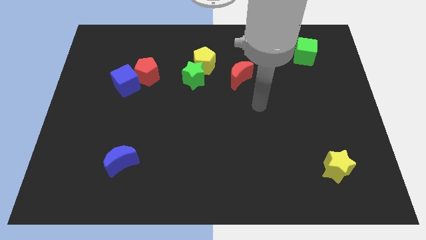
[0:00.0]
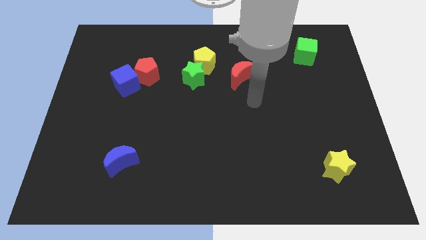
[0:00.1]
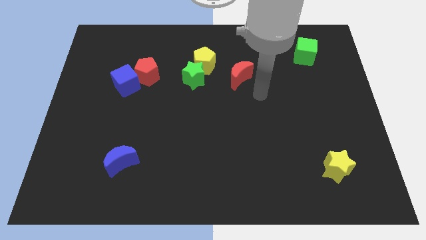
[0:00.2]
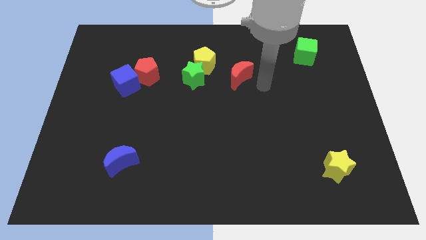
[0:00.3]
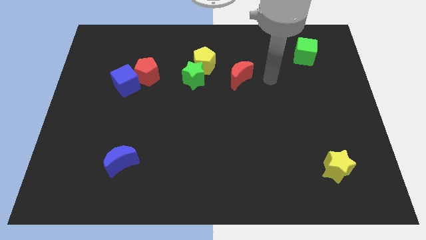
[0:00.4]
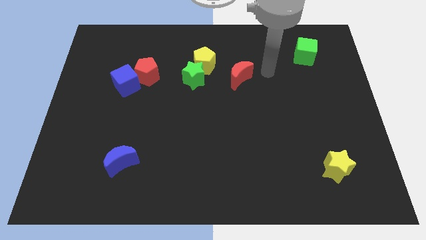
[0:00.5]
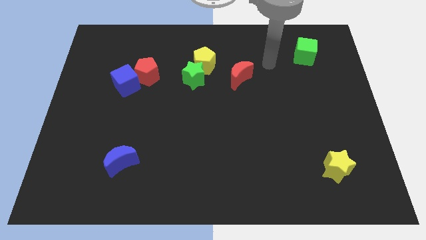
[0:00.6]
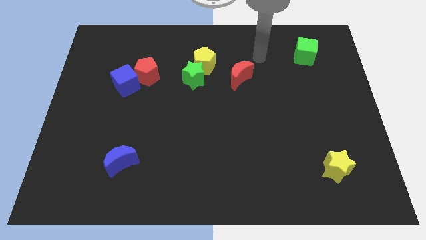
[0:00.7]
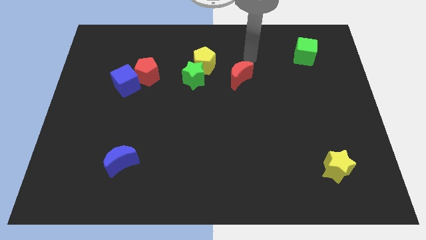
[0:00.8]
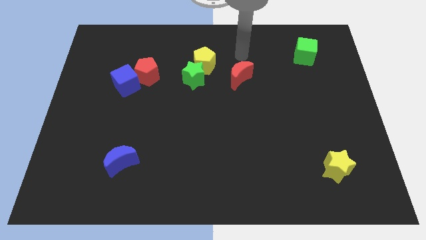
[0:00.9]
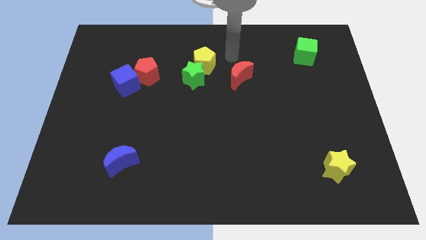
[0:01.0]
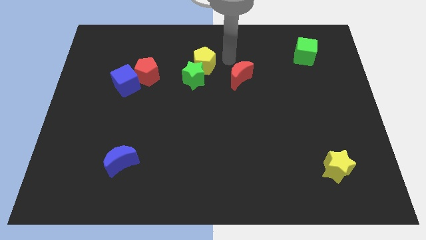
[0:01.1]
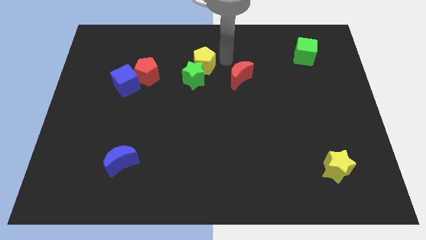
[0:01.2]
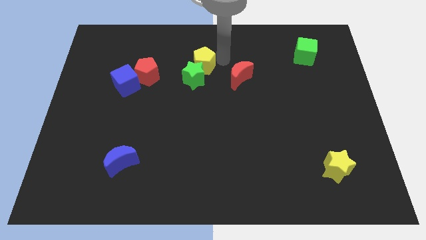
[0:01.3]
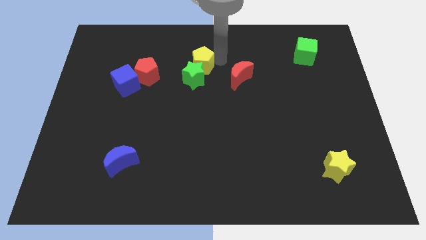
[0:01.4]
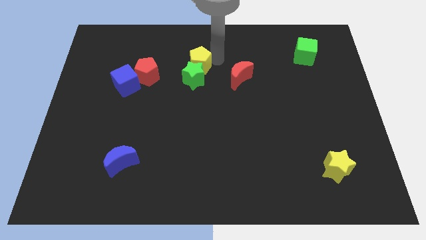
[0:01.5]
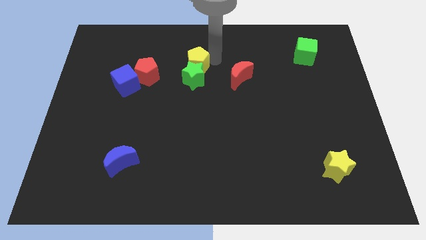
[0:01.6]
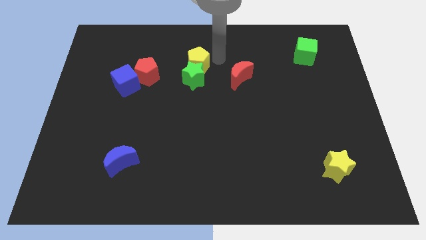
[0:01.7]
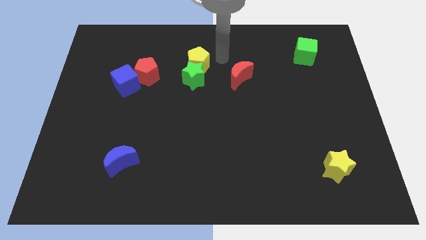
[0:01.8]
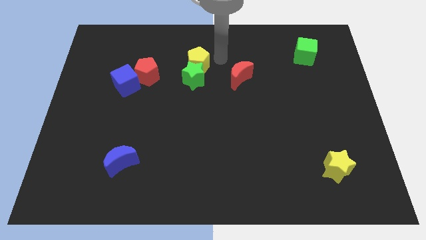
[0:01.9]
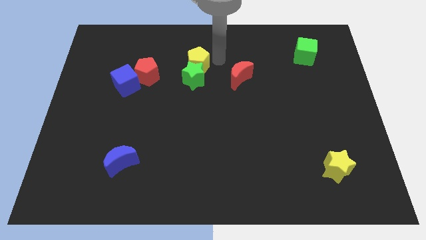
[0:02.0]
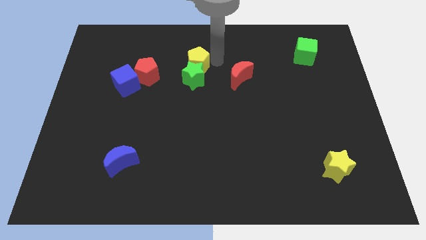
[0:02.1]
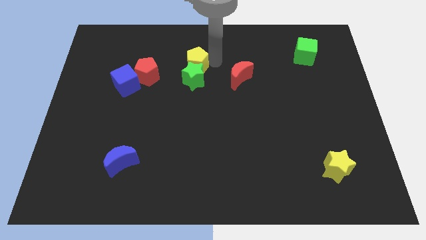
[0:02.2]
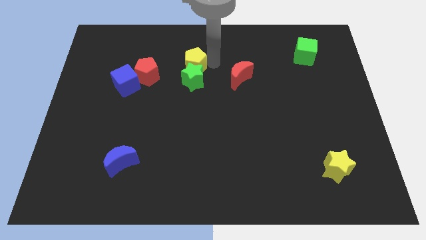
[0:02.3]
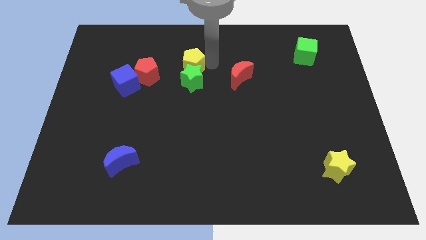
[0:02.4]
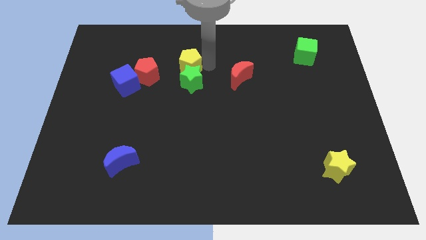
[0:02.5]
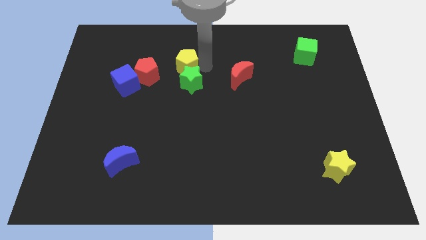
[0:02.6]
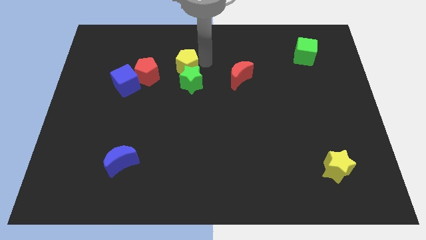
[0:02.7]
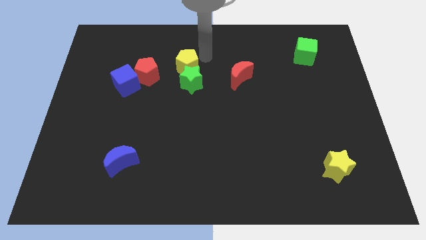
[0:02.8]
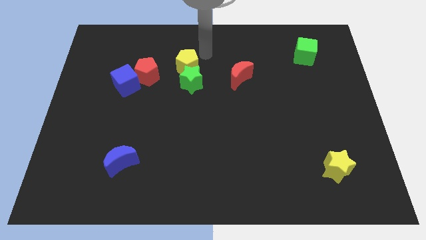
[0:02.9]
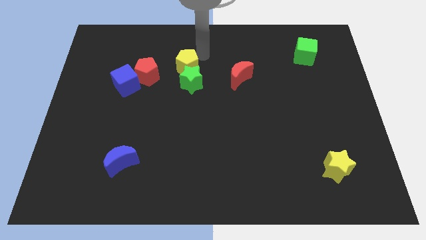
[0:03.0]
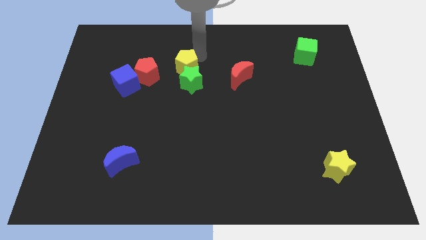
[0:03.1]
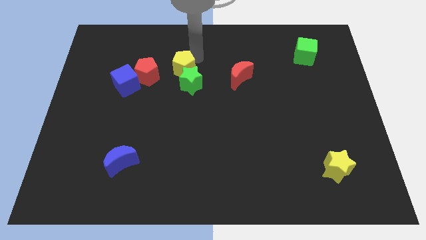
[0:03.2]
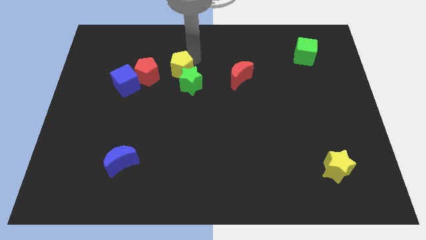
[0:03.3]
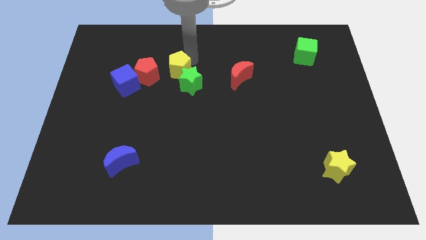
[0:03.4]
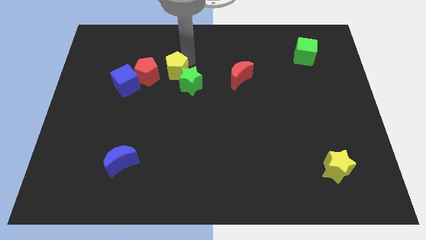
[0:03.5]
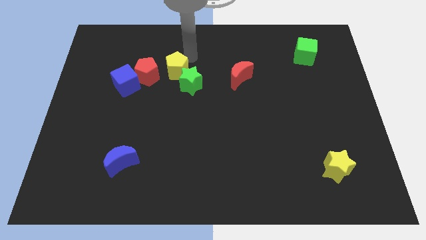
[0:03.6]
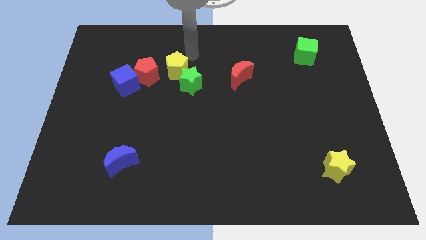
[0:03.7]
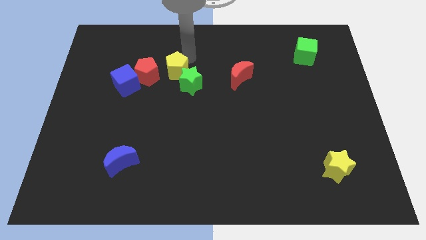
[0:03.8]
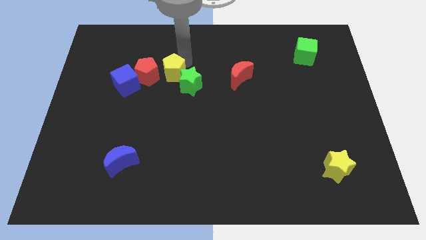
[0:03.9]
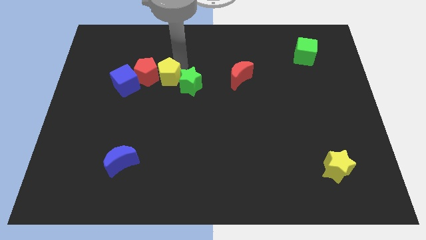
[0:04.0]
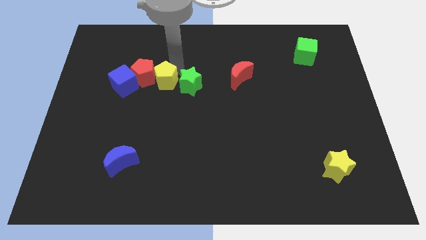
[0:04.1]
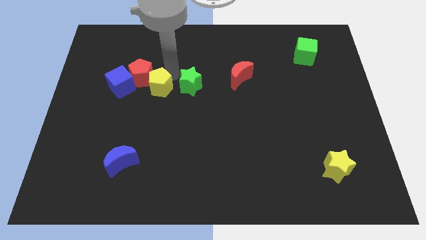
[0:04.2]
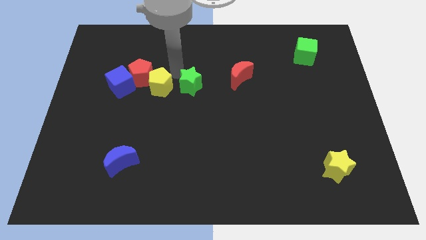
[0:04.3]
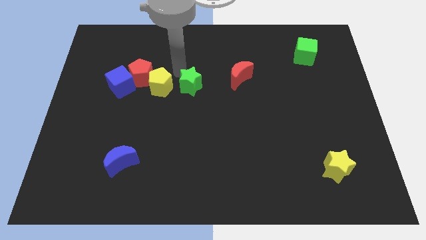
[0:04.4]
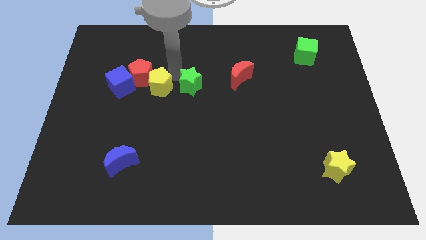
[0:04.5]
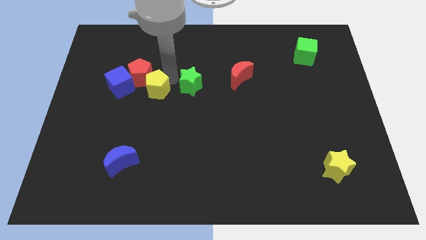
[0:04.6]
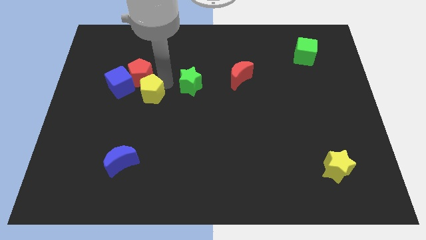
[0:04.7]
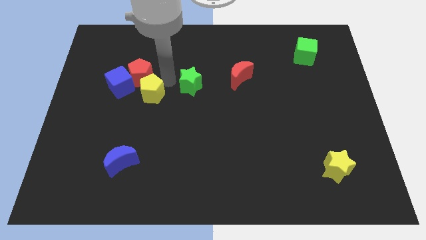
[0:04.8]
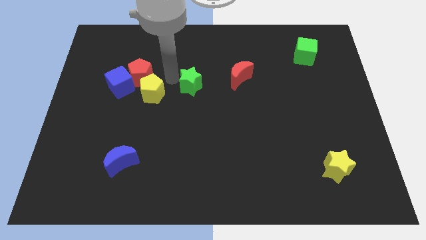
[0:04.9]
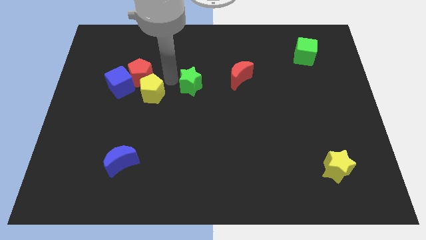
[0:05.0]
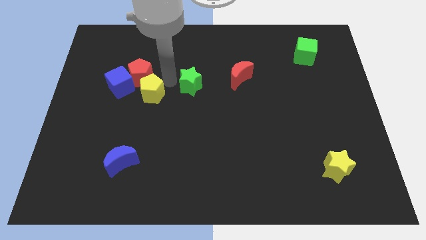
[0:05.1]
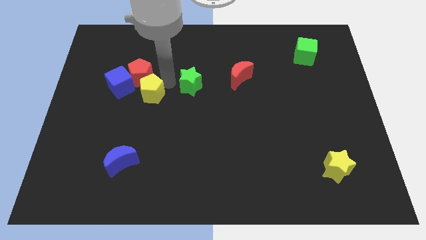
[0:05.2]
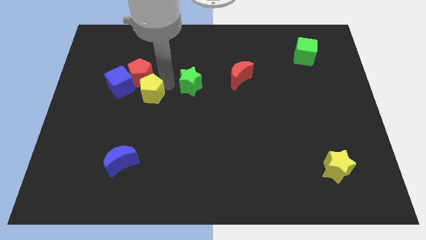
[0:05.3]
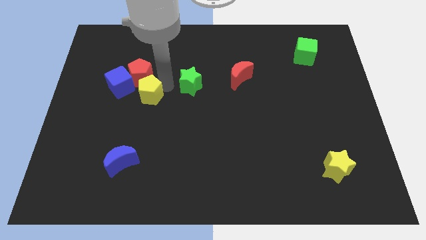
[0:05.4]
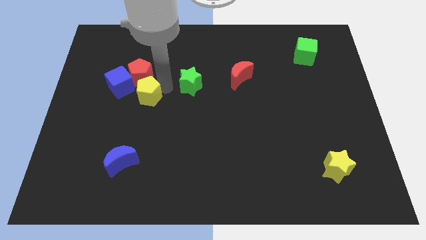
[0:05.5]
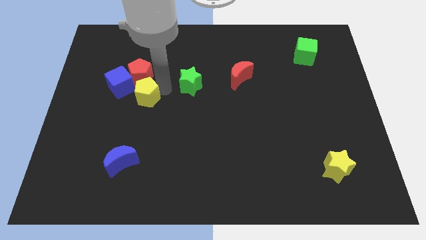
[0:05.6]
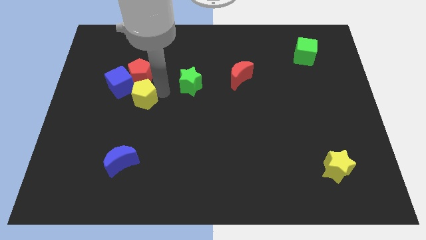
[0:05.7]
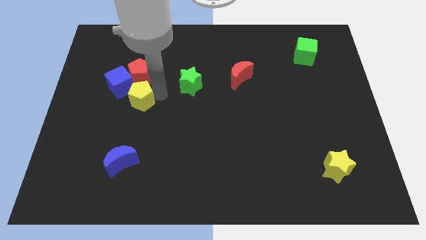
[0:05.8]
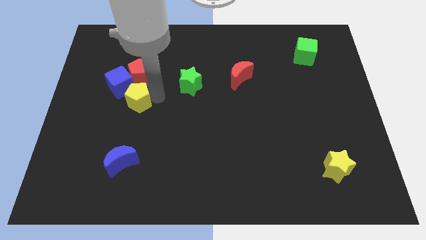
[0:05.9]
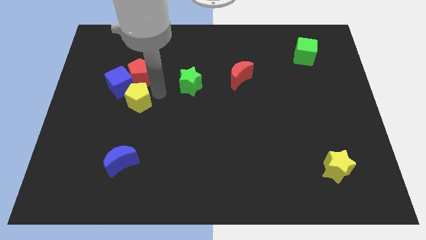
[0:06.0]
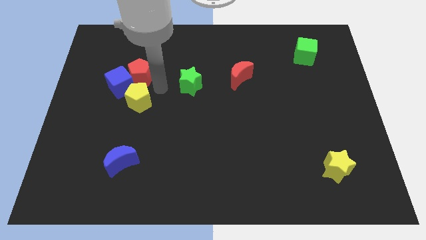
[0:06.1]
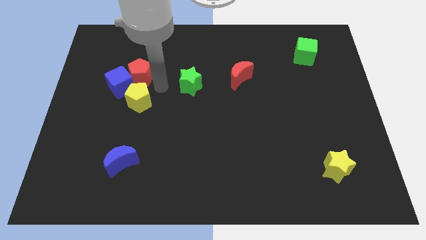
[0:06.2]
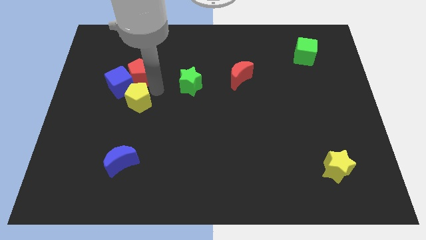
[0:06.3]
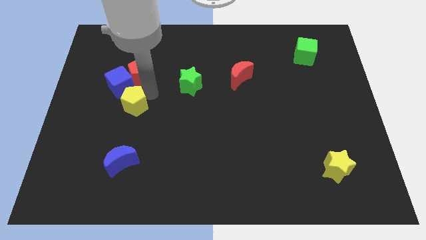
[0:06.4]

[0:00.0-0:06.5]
put the yellow pentagon to the bottom side of the blue cube

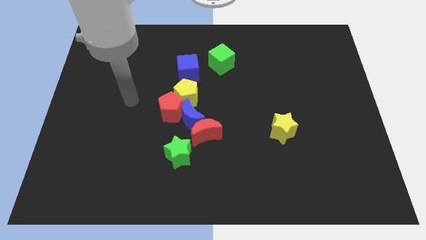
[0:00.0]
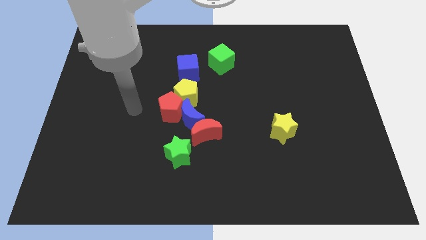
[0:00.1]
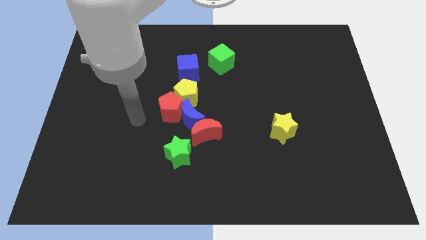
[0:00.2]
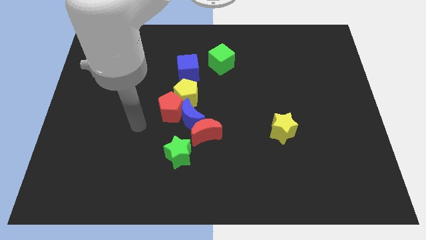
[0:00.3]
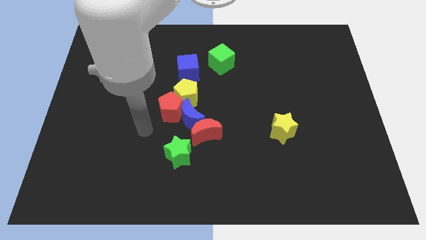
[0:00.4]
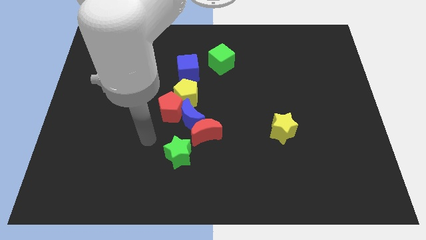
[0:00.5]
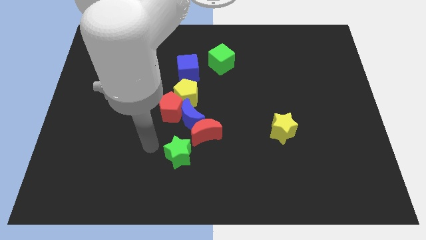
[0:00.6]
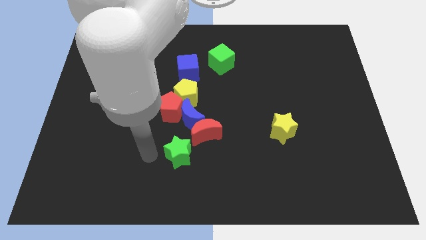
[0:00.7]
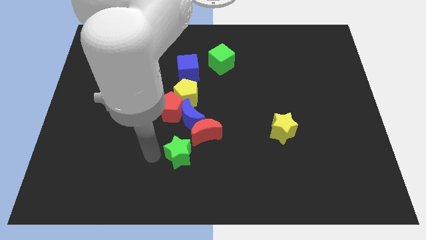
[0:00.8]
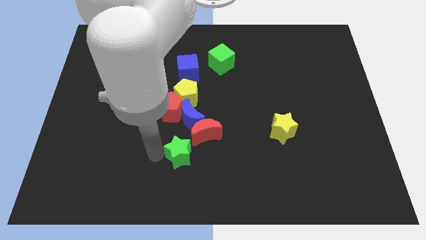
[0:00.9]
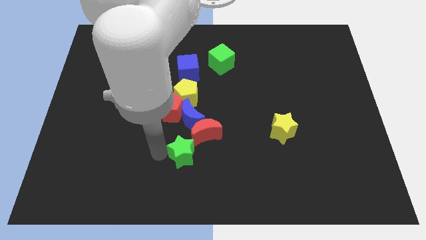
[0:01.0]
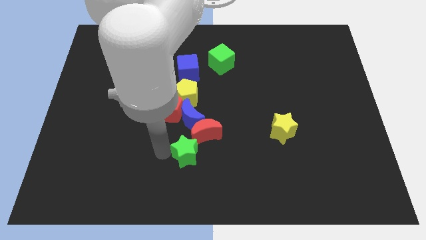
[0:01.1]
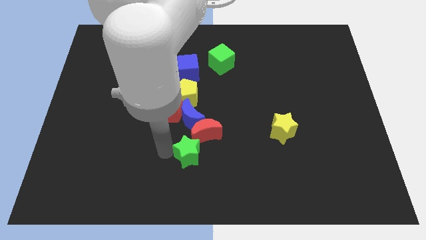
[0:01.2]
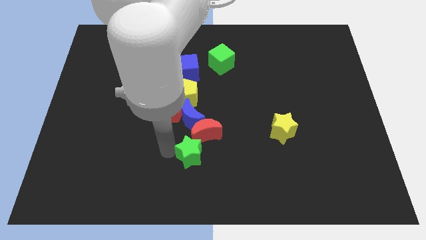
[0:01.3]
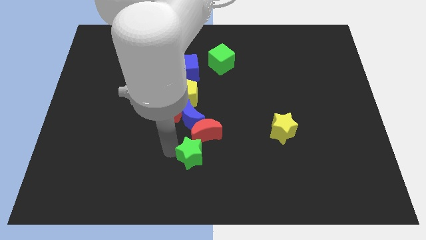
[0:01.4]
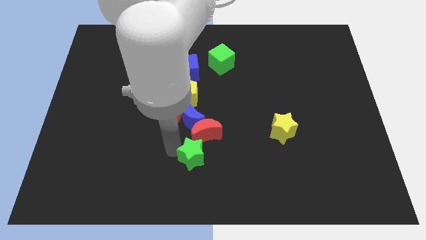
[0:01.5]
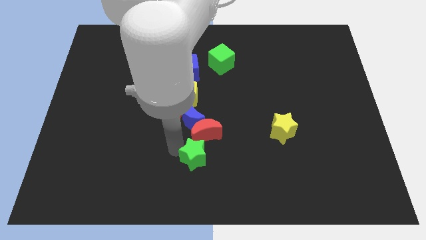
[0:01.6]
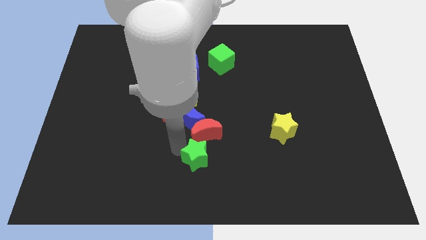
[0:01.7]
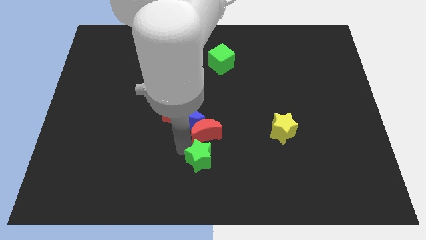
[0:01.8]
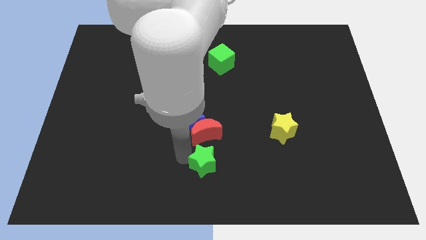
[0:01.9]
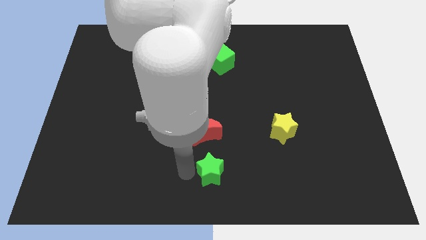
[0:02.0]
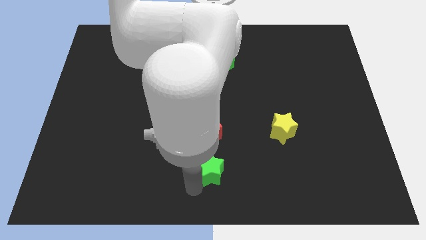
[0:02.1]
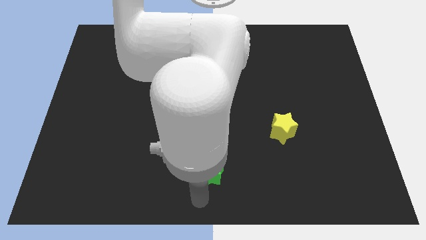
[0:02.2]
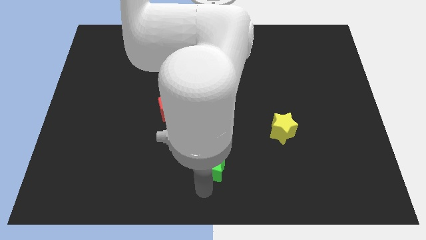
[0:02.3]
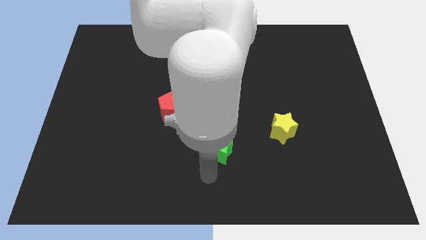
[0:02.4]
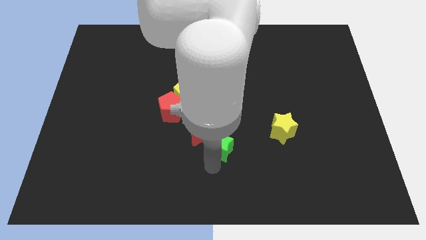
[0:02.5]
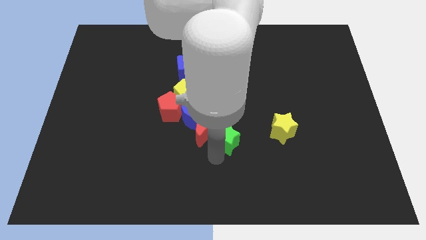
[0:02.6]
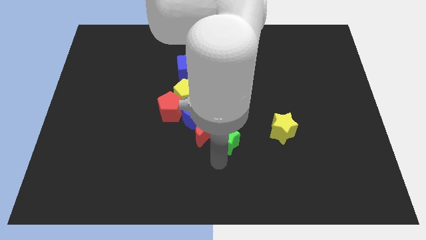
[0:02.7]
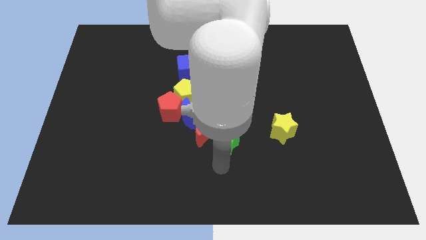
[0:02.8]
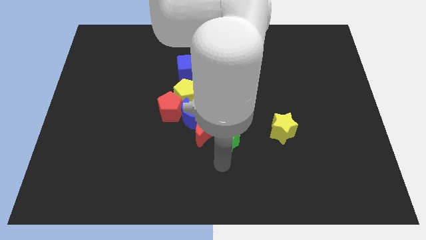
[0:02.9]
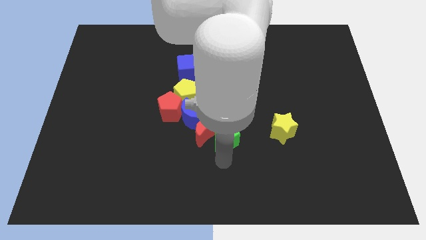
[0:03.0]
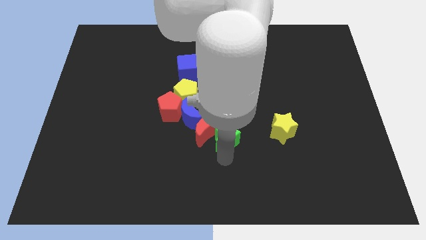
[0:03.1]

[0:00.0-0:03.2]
push the green star diagonally up and to the right of the red moon
